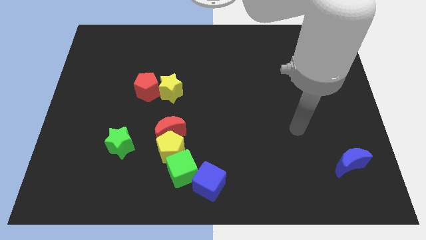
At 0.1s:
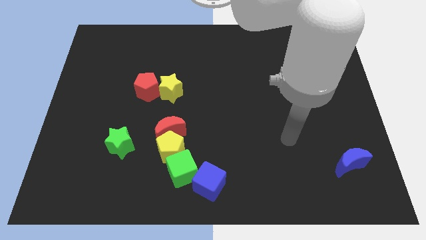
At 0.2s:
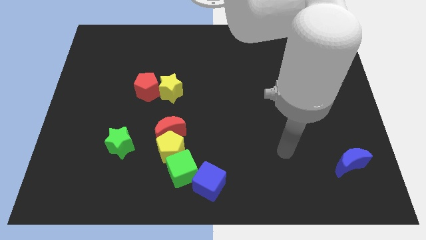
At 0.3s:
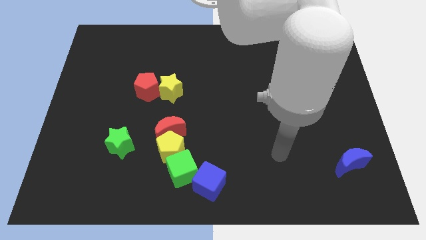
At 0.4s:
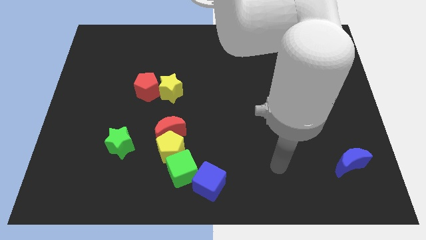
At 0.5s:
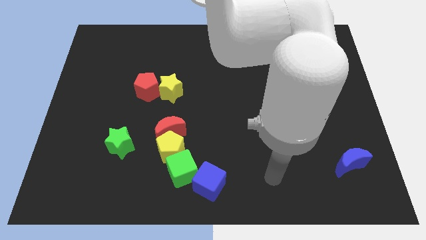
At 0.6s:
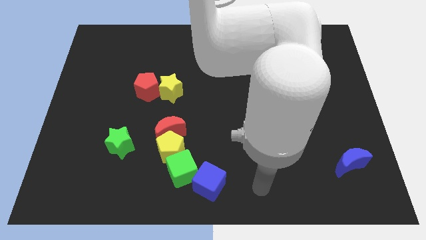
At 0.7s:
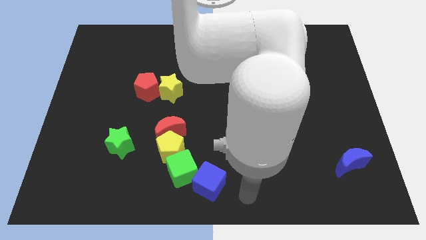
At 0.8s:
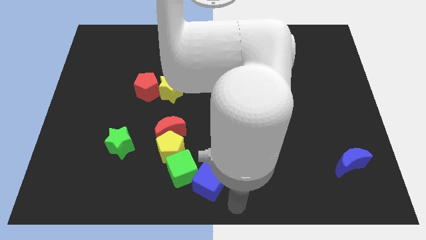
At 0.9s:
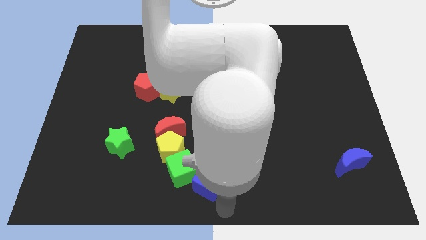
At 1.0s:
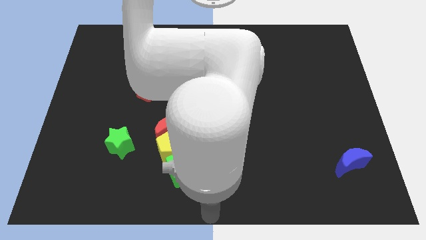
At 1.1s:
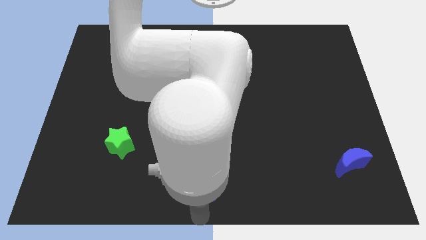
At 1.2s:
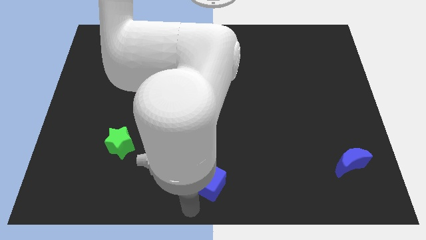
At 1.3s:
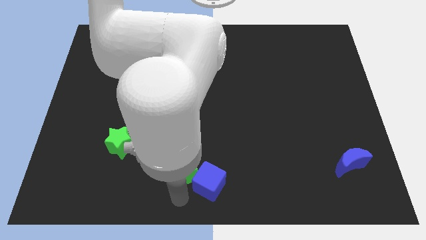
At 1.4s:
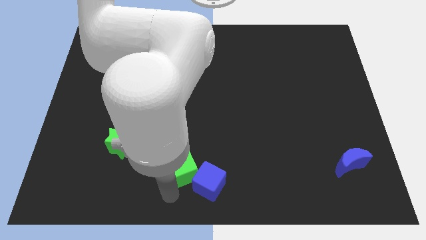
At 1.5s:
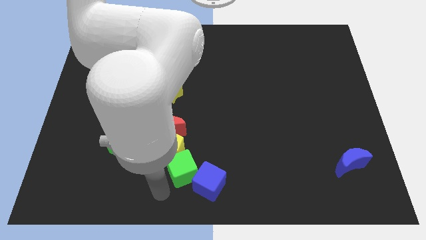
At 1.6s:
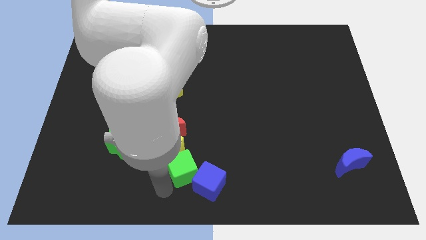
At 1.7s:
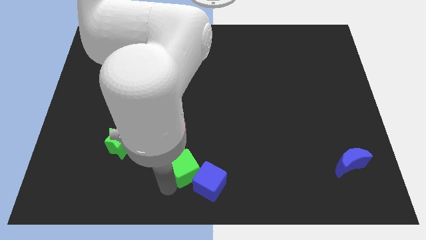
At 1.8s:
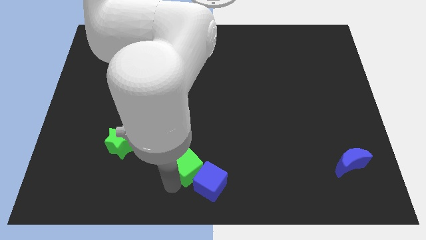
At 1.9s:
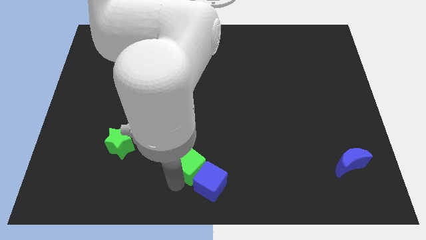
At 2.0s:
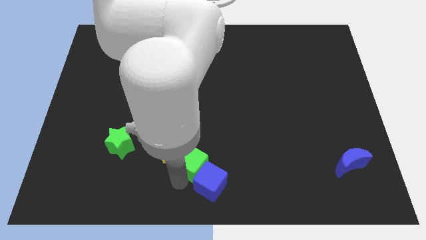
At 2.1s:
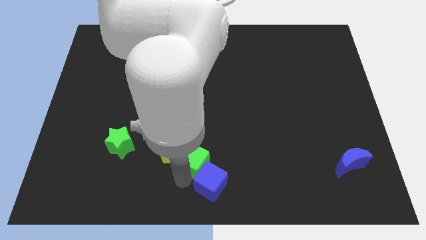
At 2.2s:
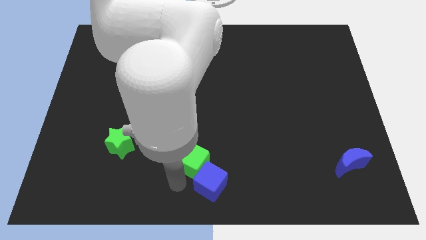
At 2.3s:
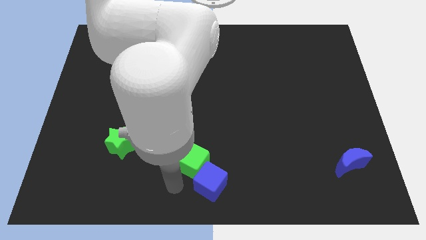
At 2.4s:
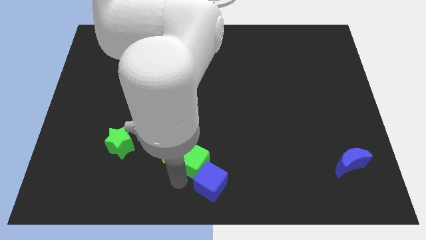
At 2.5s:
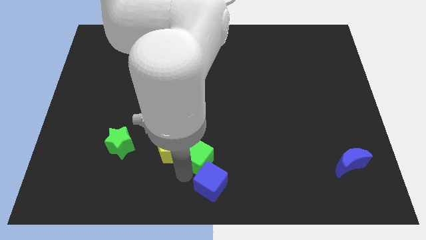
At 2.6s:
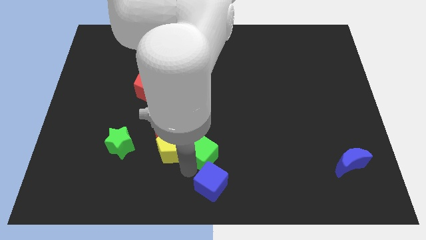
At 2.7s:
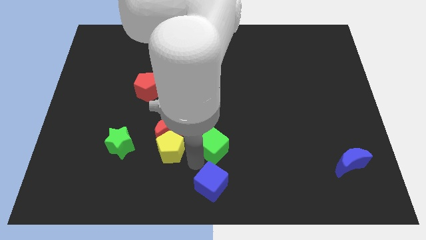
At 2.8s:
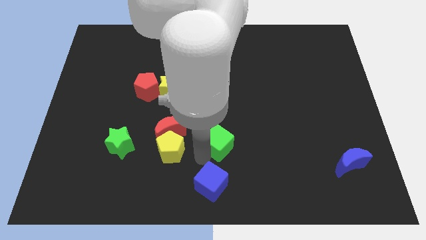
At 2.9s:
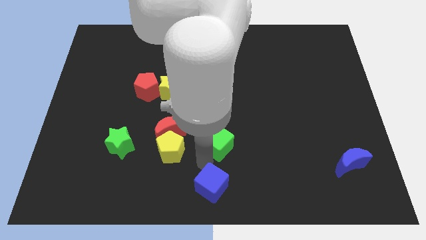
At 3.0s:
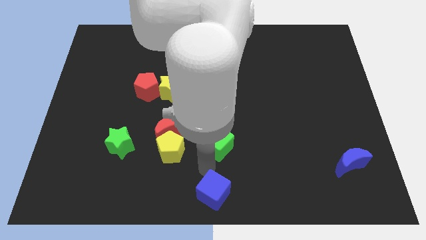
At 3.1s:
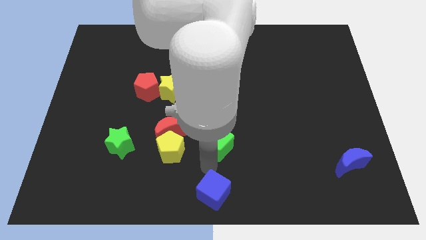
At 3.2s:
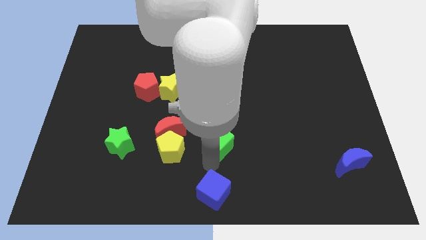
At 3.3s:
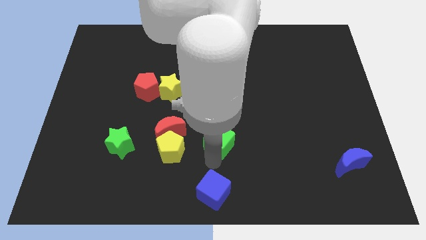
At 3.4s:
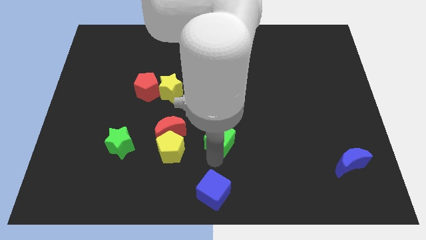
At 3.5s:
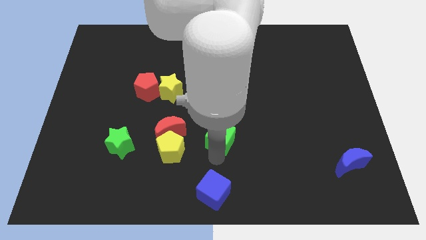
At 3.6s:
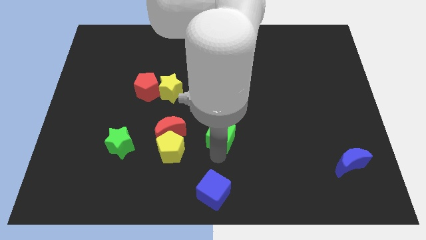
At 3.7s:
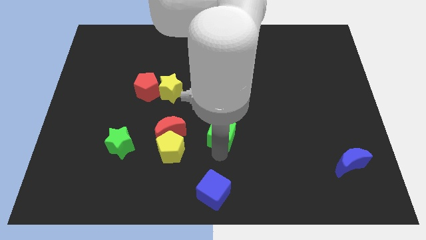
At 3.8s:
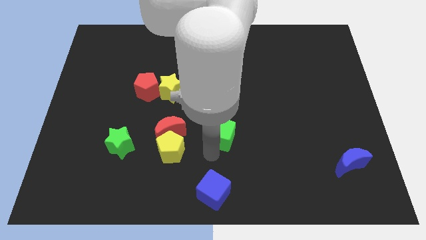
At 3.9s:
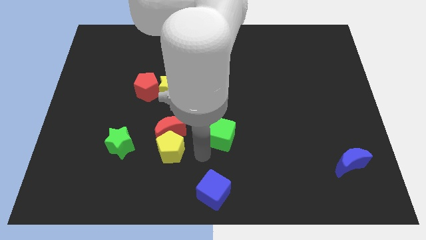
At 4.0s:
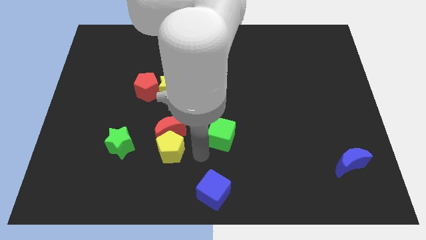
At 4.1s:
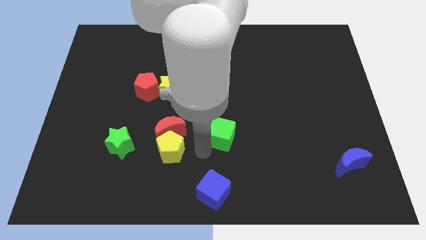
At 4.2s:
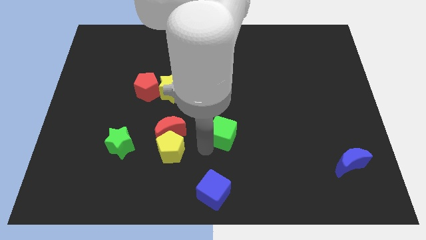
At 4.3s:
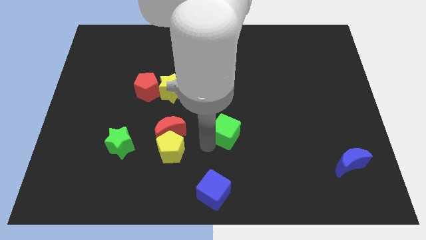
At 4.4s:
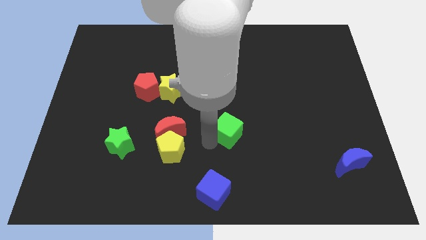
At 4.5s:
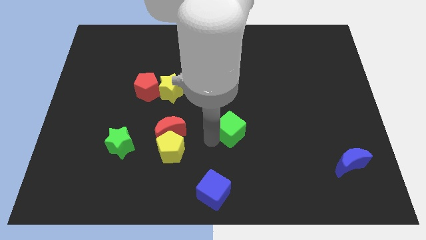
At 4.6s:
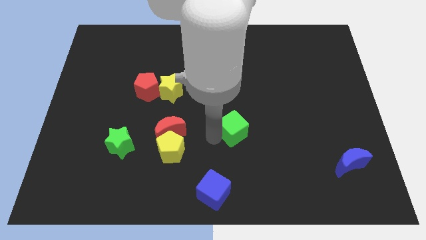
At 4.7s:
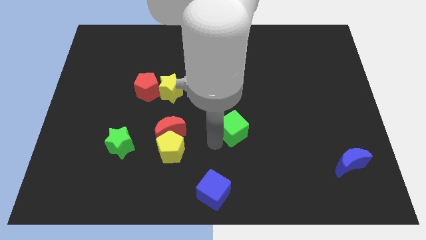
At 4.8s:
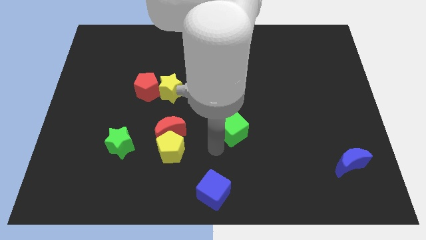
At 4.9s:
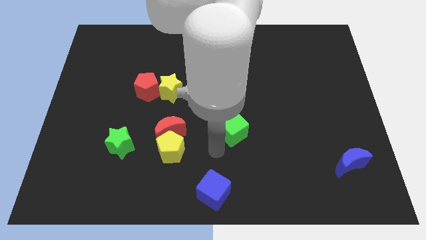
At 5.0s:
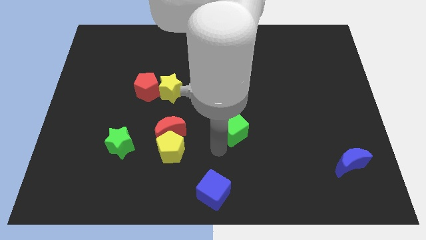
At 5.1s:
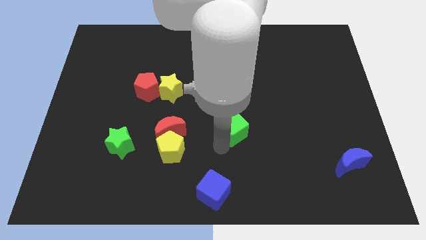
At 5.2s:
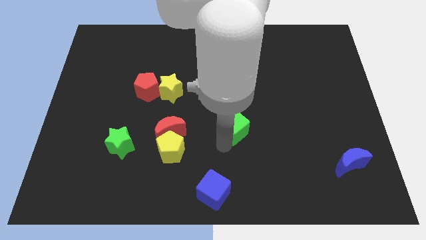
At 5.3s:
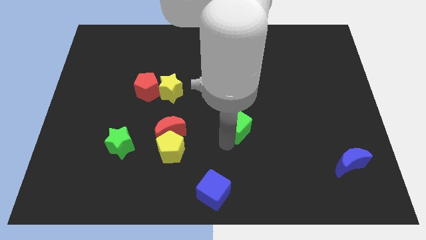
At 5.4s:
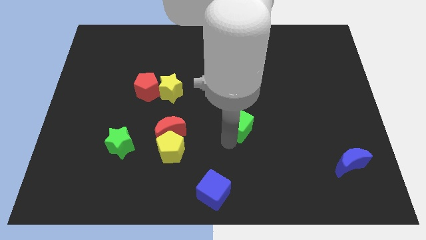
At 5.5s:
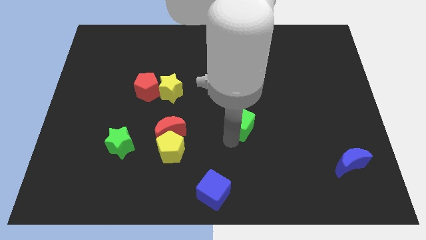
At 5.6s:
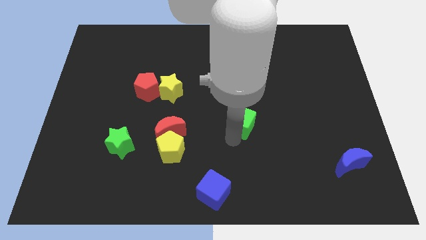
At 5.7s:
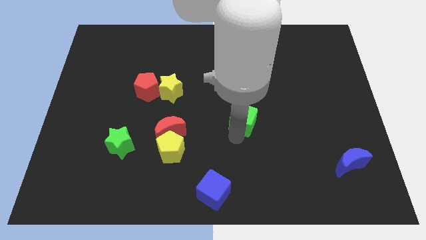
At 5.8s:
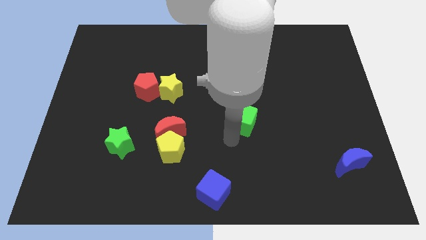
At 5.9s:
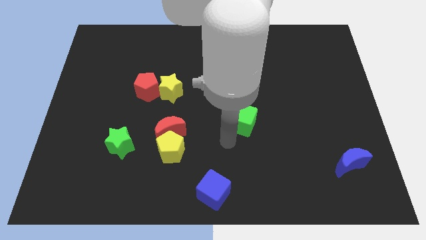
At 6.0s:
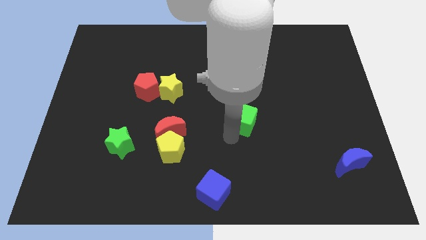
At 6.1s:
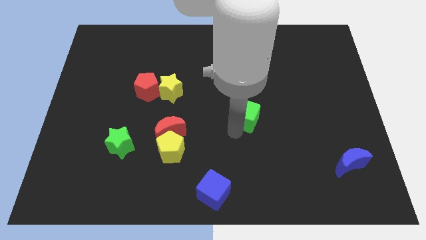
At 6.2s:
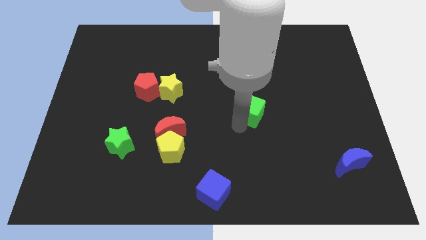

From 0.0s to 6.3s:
slide the green cube upwards and then to the right

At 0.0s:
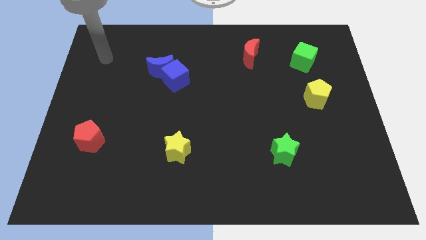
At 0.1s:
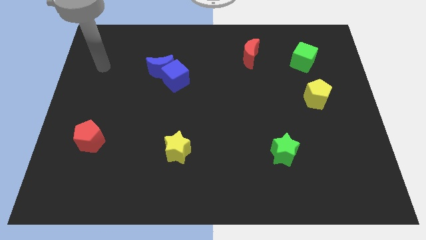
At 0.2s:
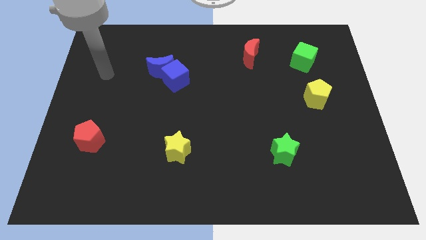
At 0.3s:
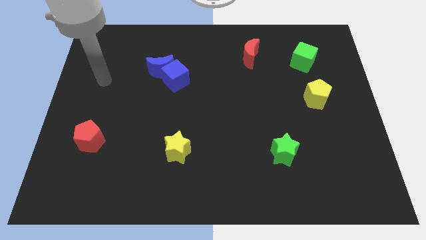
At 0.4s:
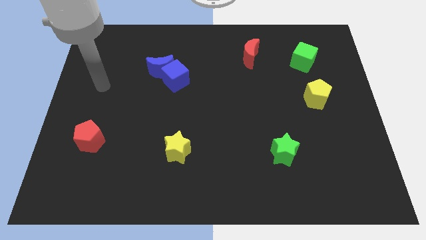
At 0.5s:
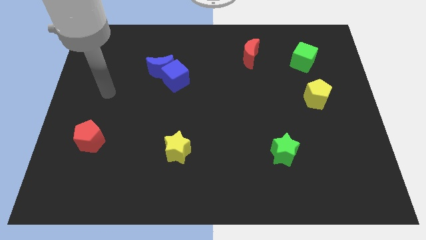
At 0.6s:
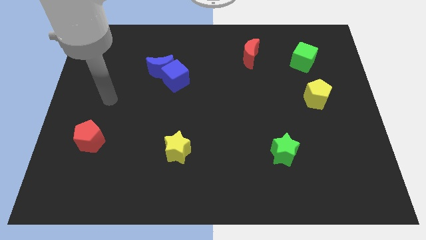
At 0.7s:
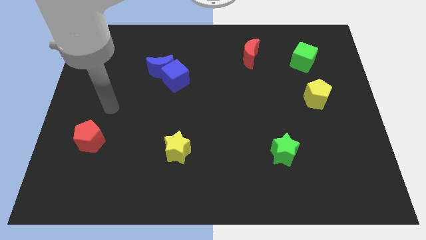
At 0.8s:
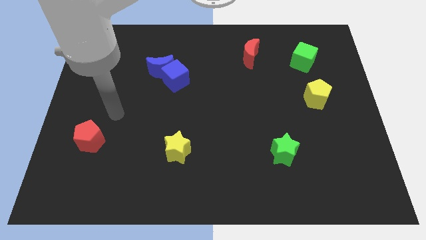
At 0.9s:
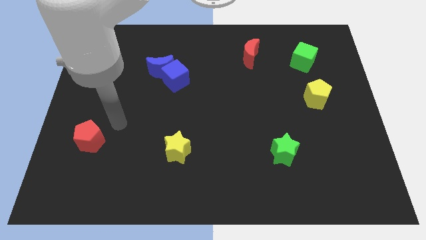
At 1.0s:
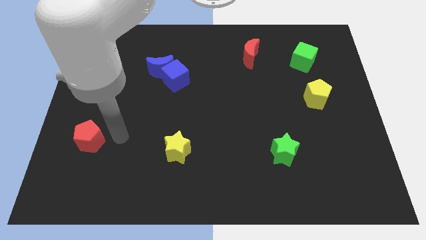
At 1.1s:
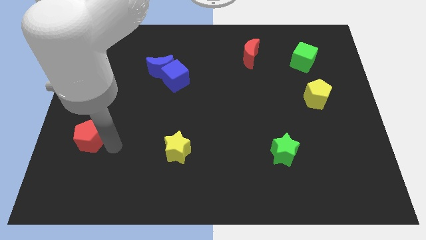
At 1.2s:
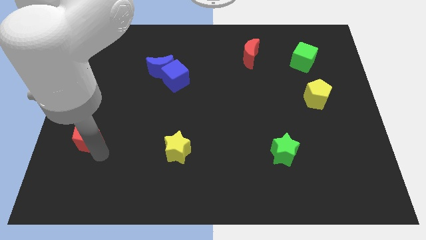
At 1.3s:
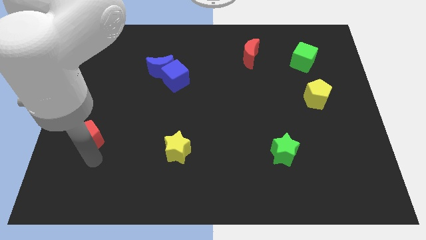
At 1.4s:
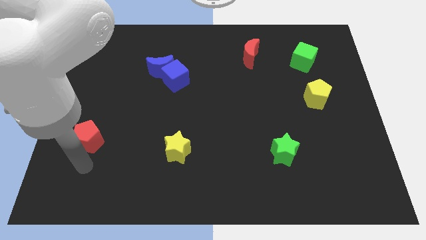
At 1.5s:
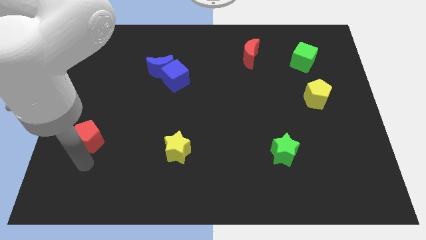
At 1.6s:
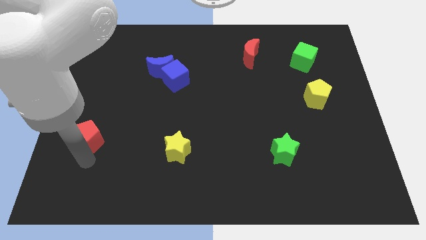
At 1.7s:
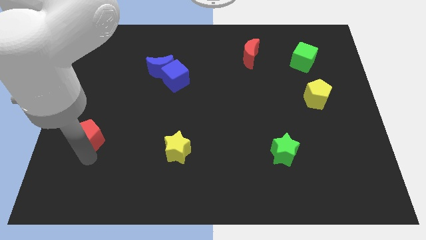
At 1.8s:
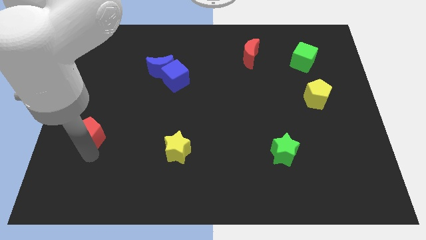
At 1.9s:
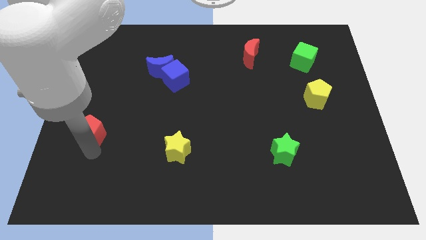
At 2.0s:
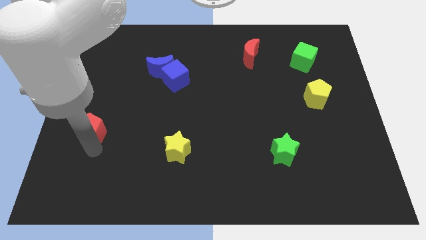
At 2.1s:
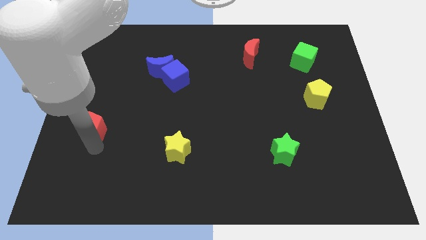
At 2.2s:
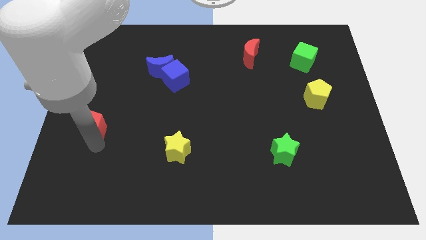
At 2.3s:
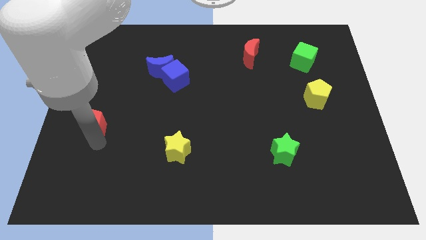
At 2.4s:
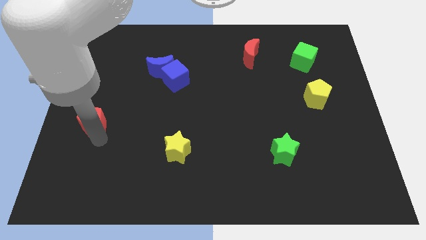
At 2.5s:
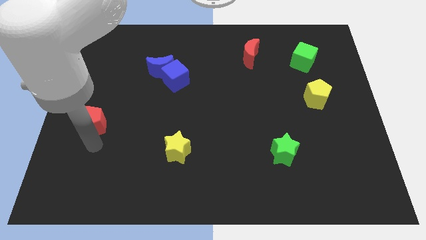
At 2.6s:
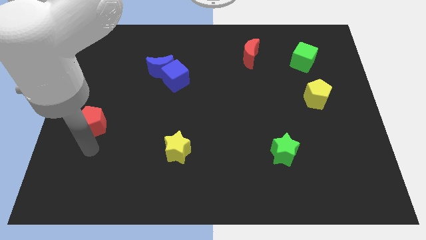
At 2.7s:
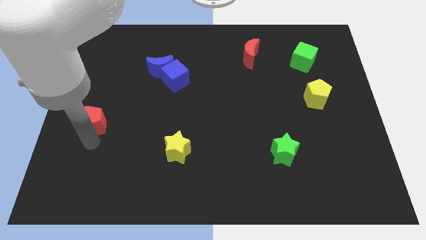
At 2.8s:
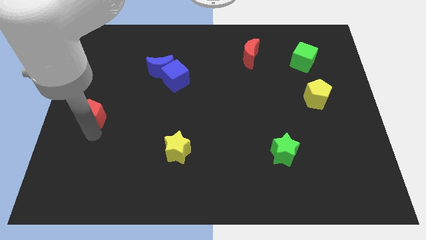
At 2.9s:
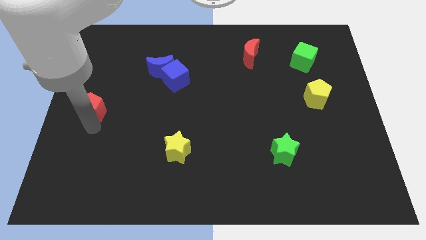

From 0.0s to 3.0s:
push the red pentagon up a little
